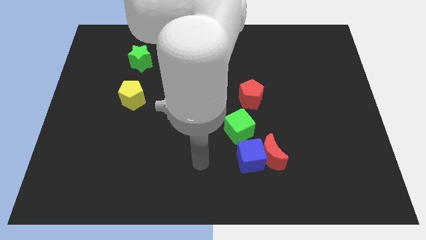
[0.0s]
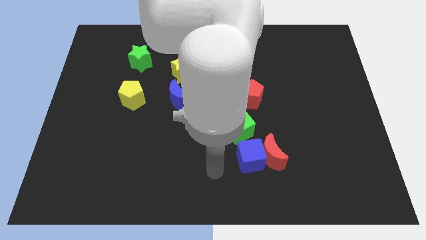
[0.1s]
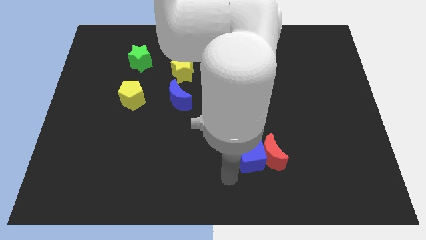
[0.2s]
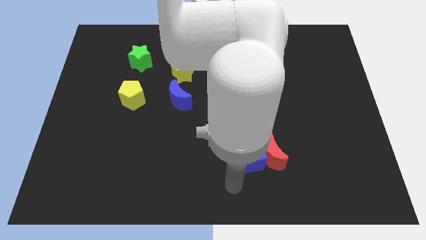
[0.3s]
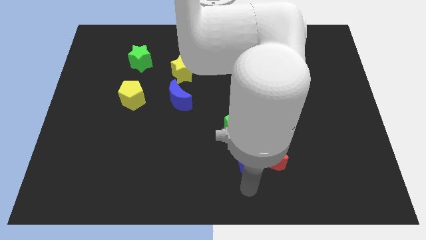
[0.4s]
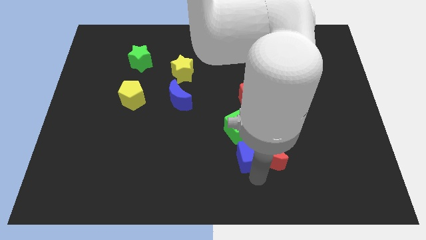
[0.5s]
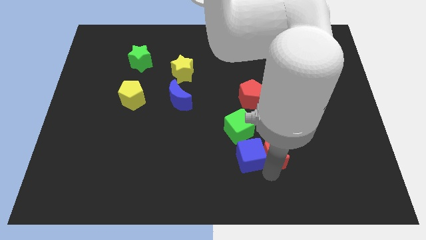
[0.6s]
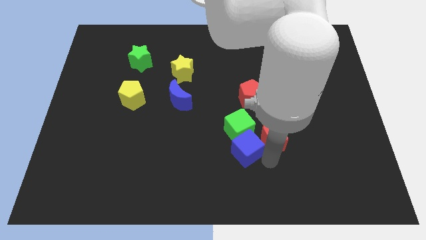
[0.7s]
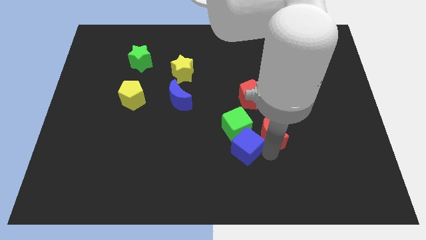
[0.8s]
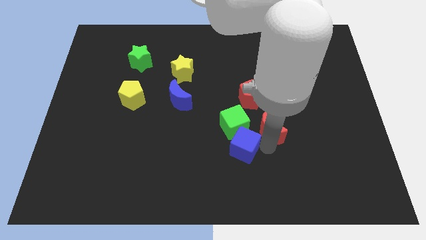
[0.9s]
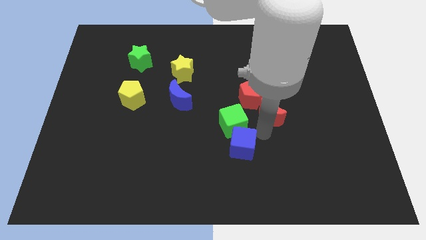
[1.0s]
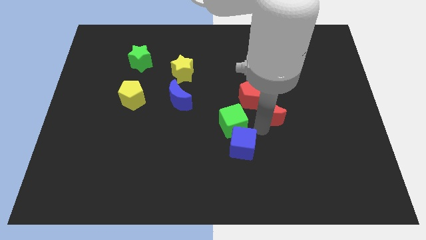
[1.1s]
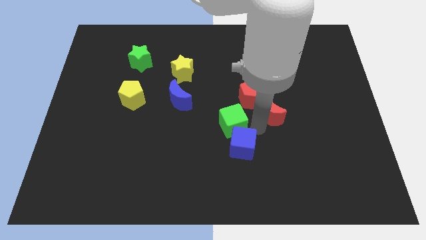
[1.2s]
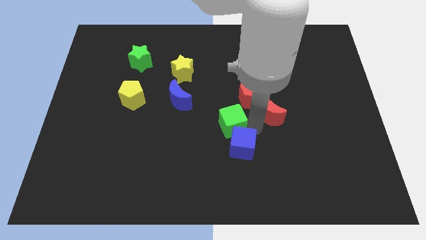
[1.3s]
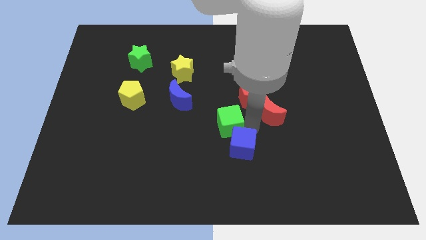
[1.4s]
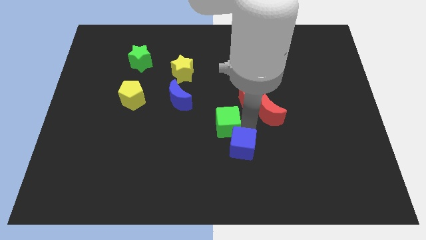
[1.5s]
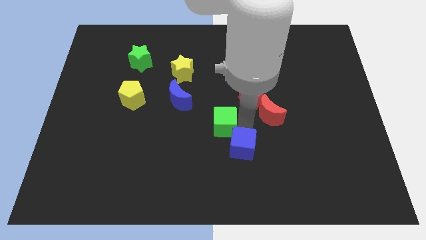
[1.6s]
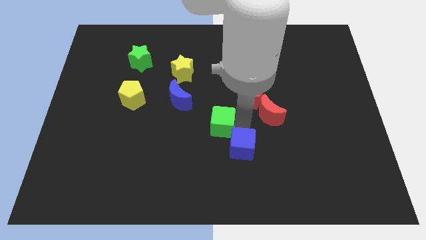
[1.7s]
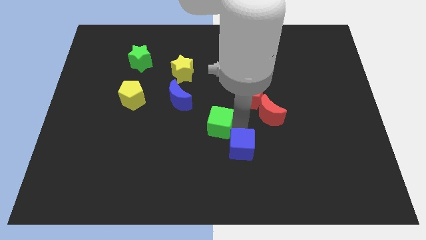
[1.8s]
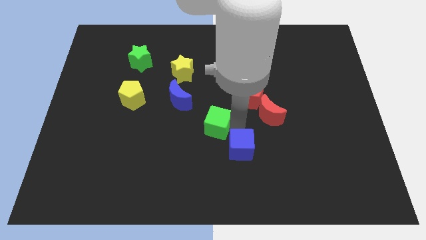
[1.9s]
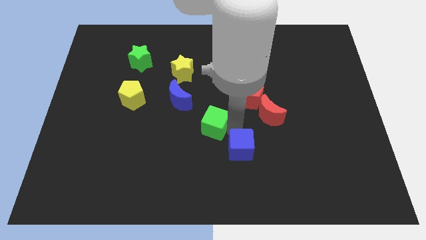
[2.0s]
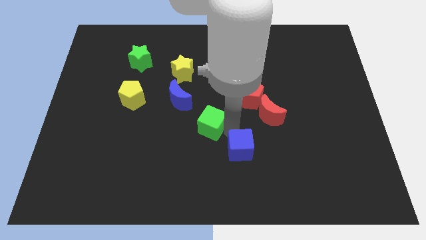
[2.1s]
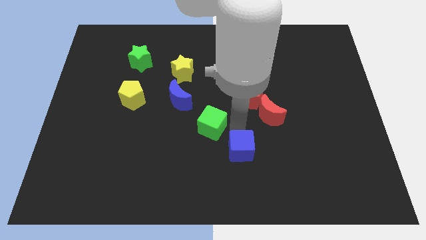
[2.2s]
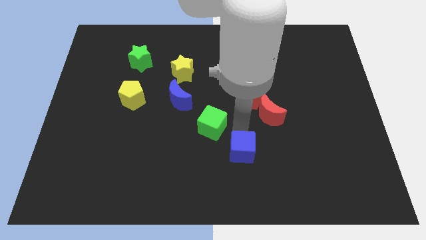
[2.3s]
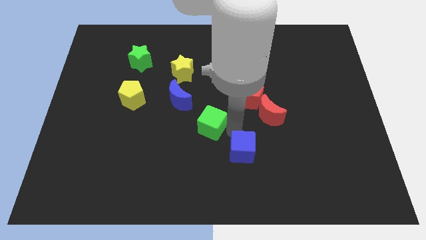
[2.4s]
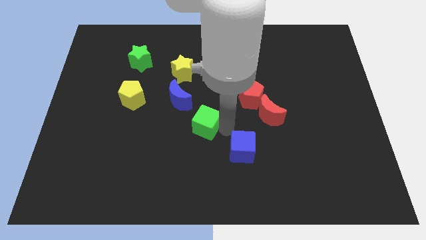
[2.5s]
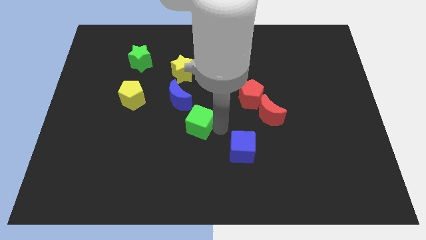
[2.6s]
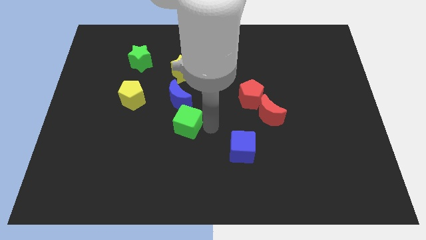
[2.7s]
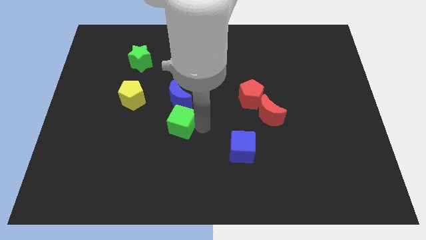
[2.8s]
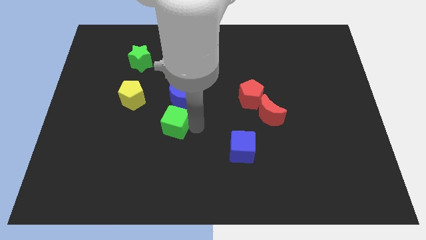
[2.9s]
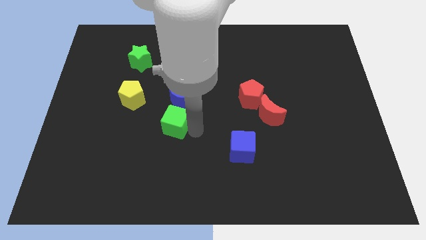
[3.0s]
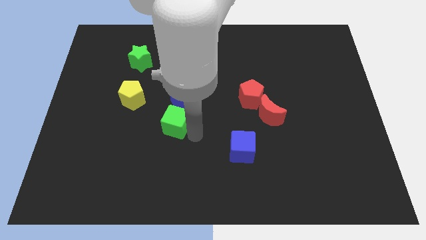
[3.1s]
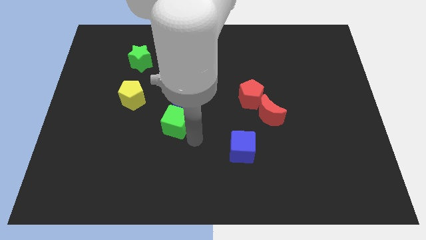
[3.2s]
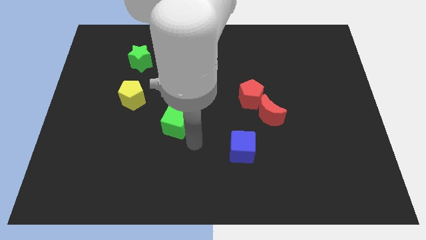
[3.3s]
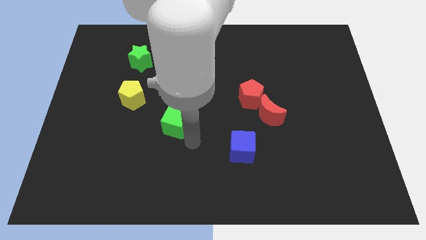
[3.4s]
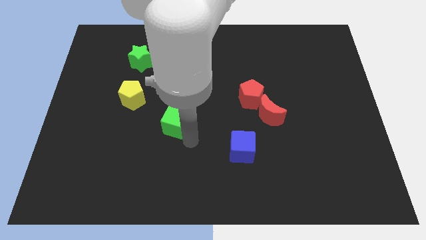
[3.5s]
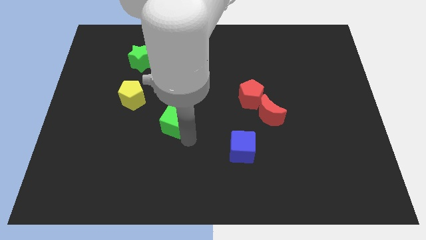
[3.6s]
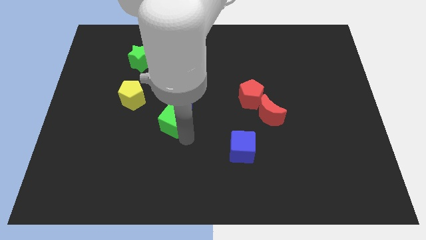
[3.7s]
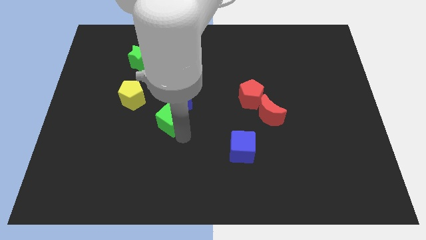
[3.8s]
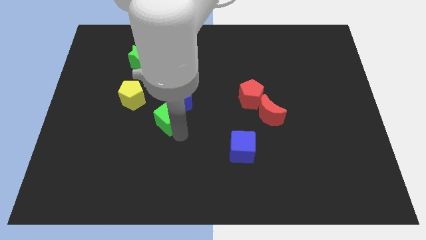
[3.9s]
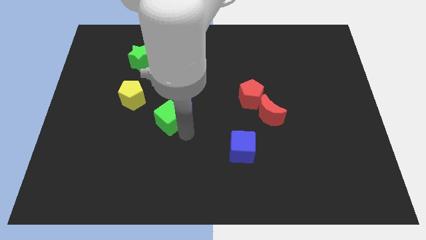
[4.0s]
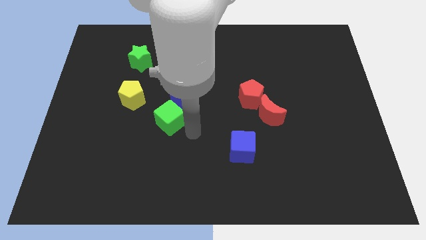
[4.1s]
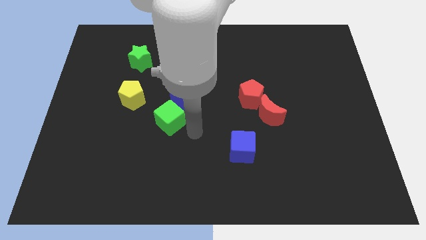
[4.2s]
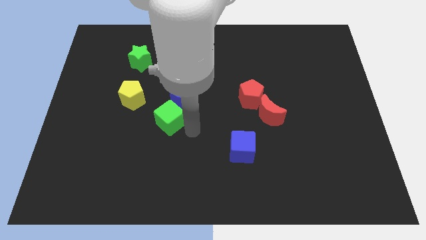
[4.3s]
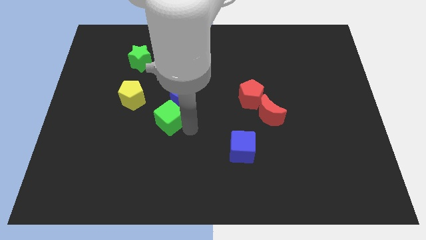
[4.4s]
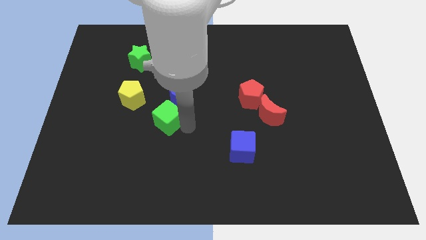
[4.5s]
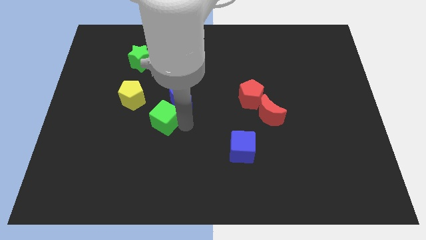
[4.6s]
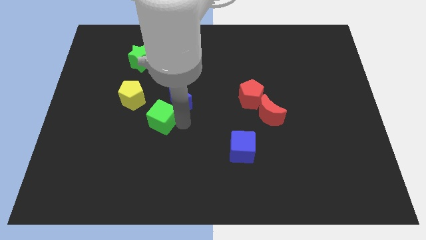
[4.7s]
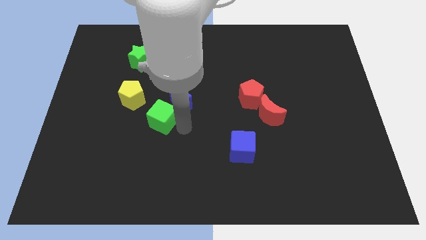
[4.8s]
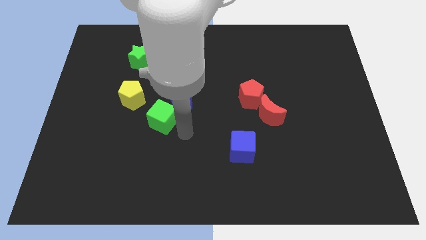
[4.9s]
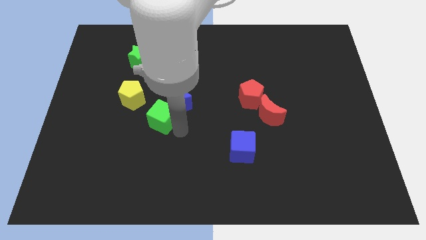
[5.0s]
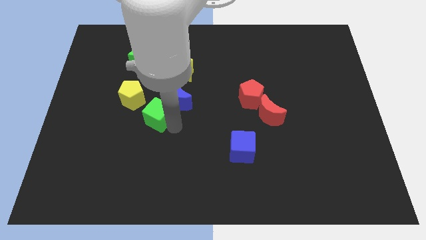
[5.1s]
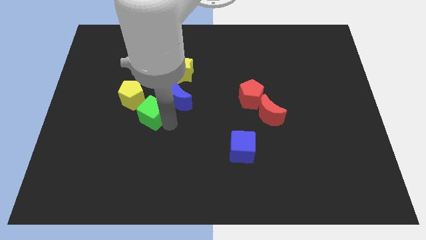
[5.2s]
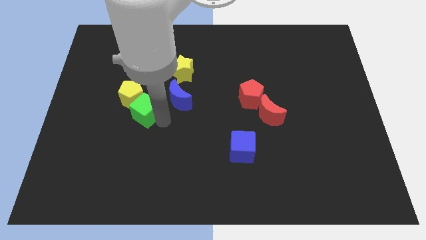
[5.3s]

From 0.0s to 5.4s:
put the green cube close to the yellow pentagon

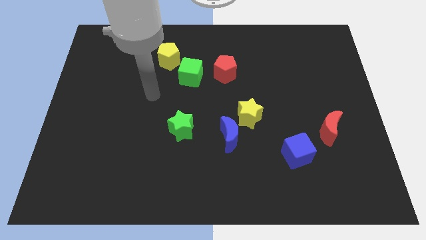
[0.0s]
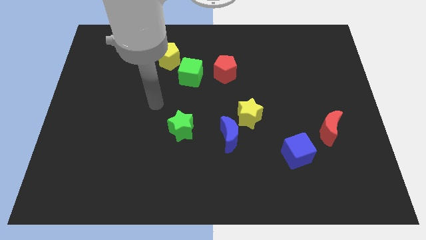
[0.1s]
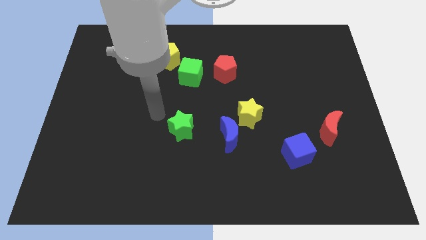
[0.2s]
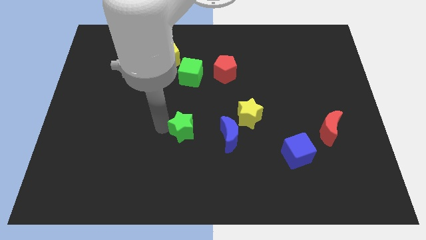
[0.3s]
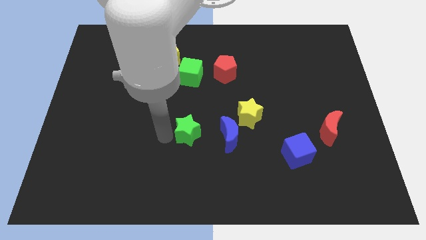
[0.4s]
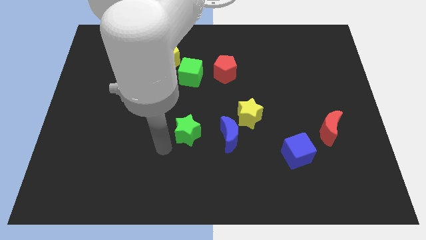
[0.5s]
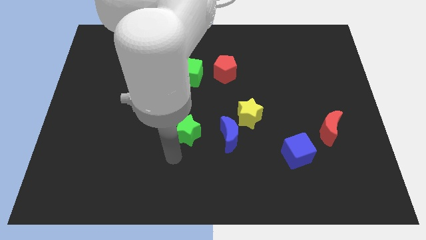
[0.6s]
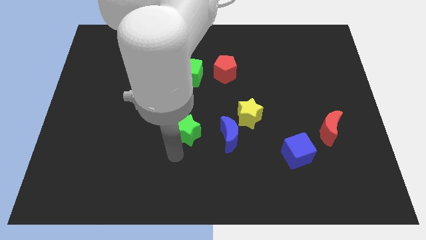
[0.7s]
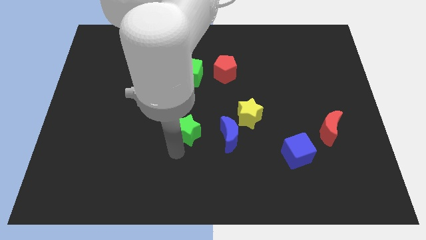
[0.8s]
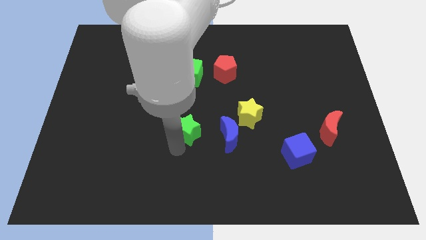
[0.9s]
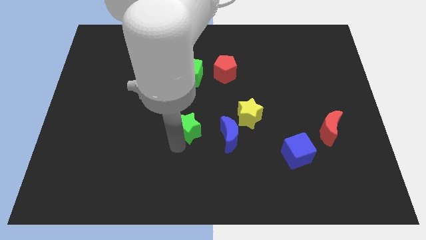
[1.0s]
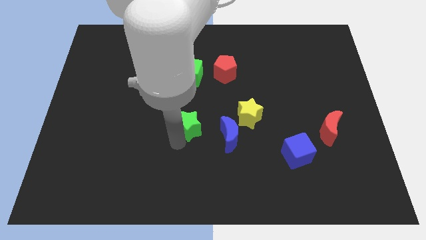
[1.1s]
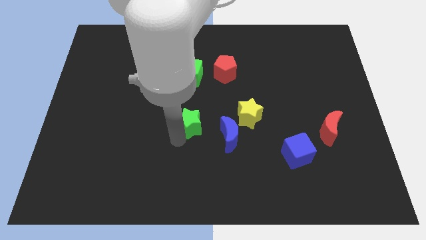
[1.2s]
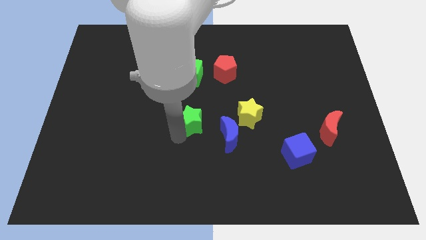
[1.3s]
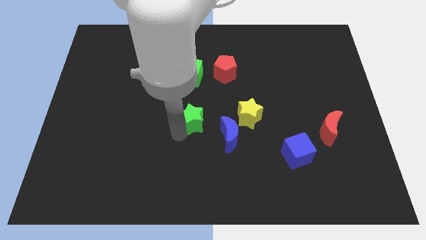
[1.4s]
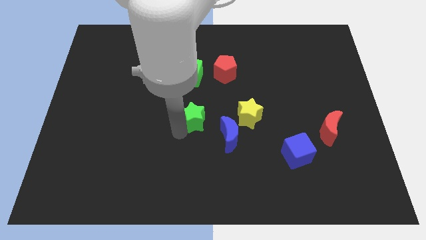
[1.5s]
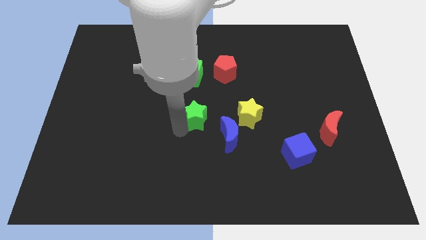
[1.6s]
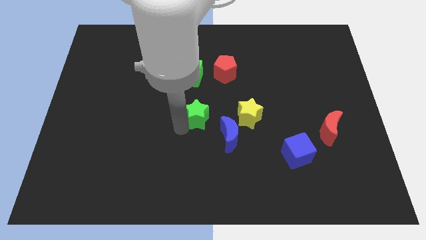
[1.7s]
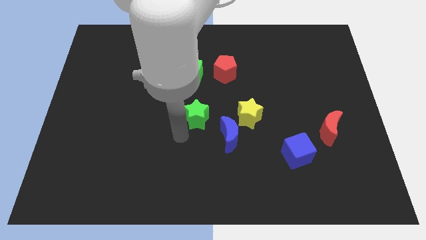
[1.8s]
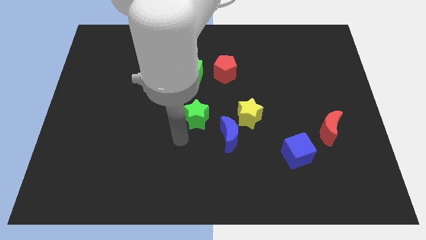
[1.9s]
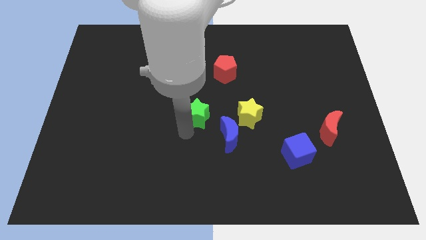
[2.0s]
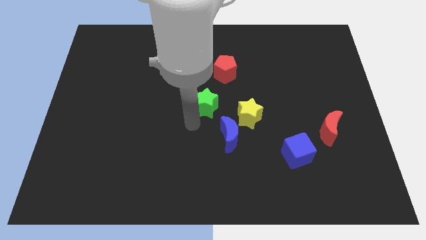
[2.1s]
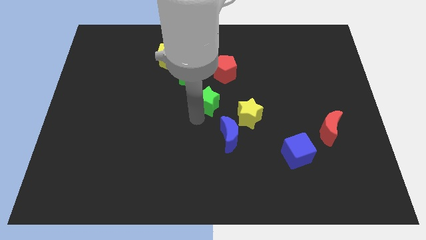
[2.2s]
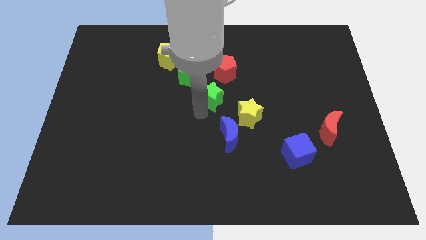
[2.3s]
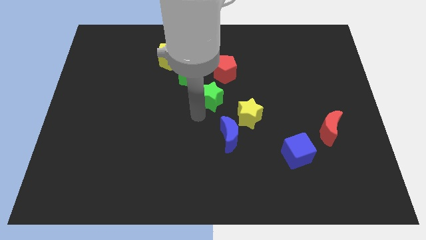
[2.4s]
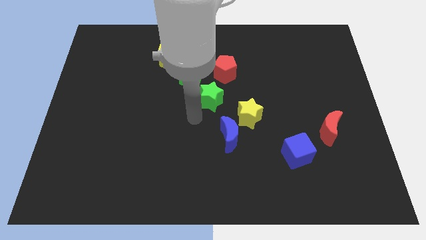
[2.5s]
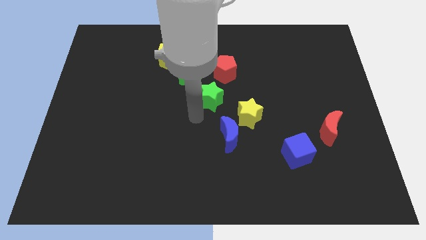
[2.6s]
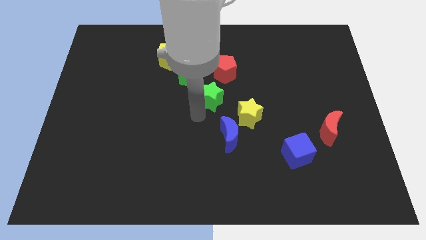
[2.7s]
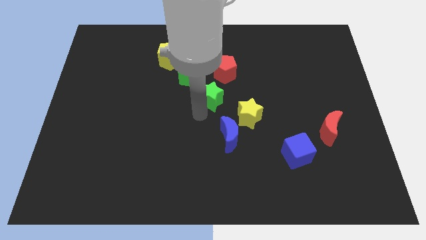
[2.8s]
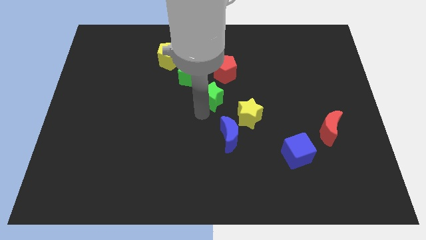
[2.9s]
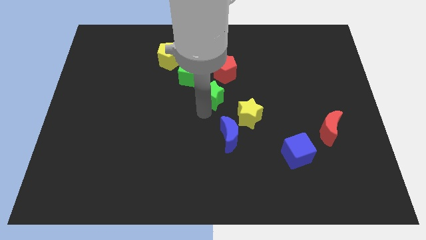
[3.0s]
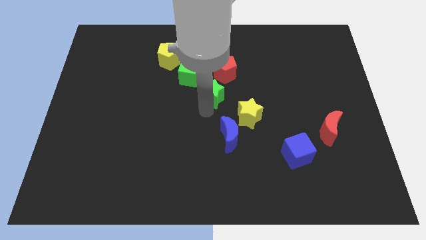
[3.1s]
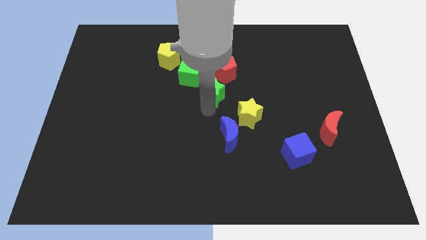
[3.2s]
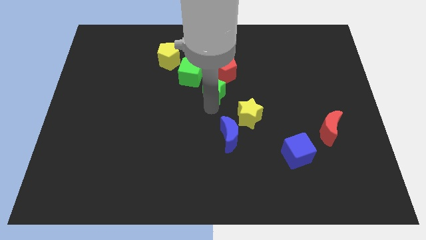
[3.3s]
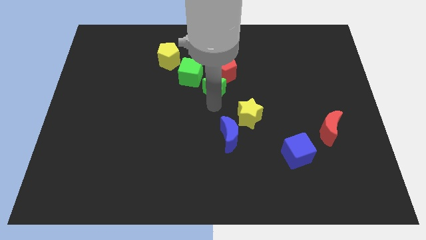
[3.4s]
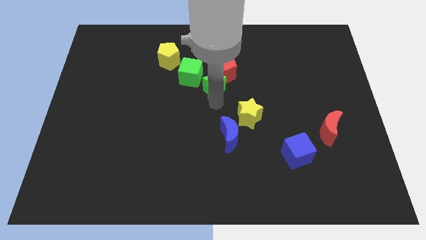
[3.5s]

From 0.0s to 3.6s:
move the green star to the red pentagon
